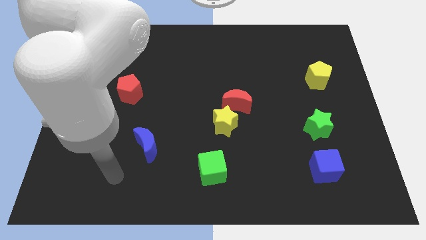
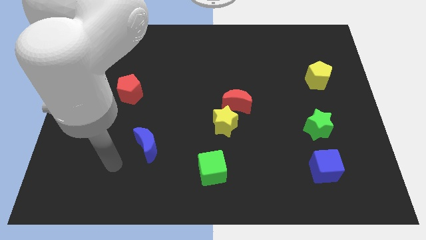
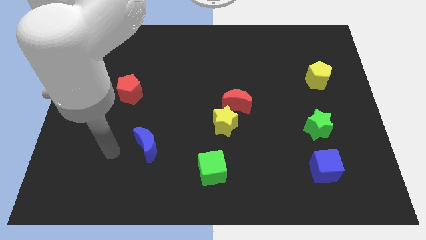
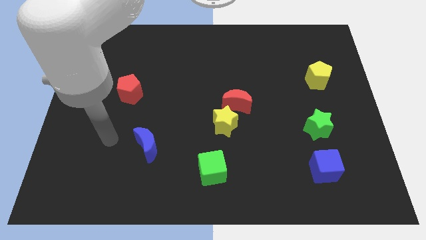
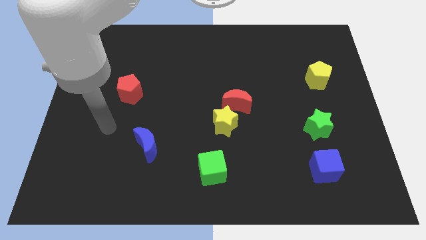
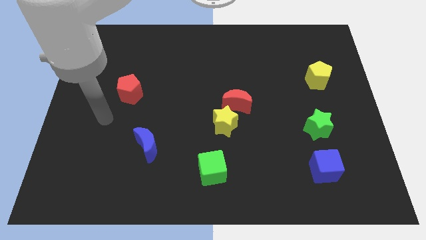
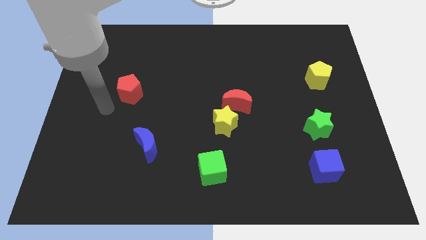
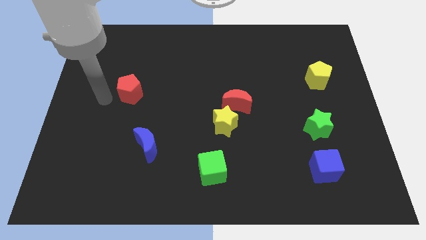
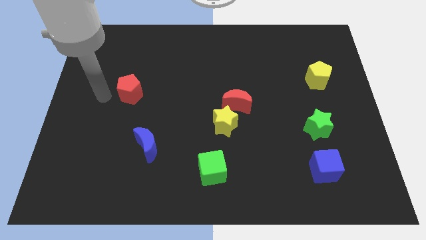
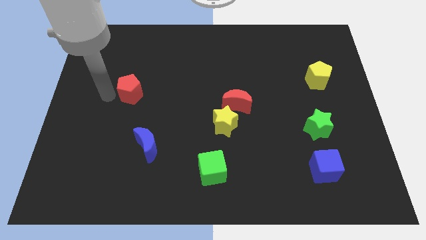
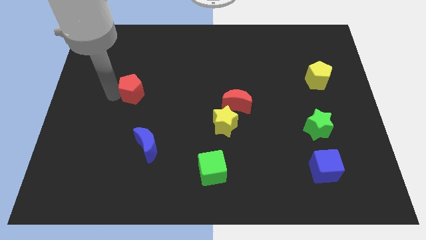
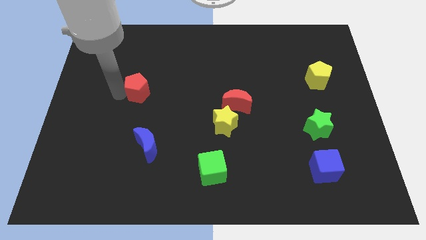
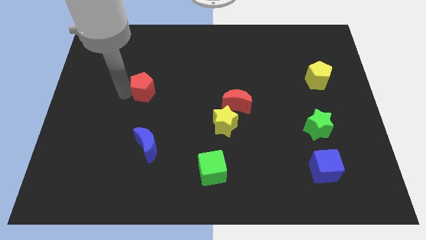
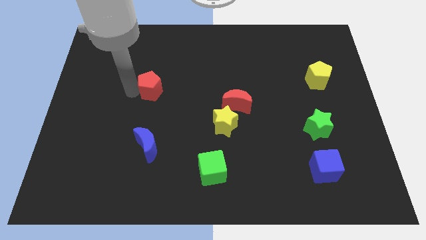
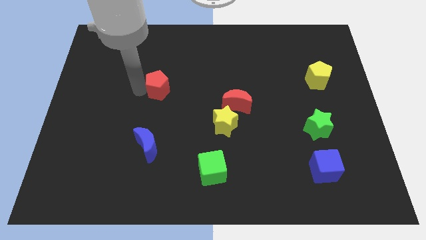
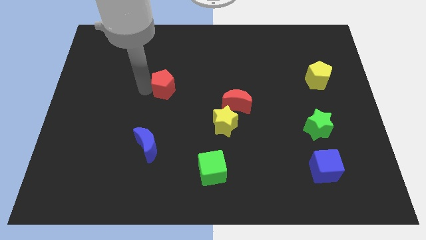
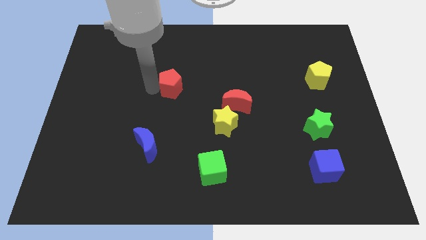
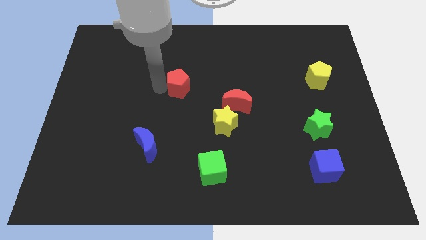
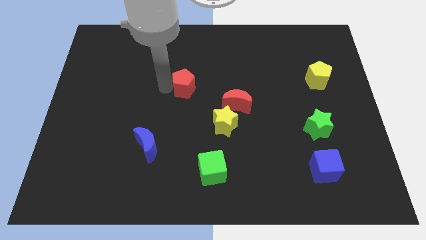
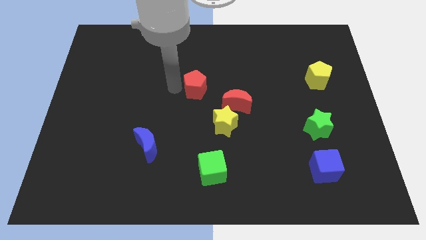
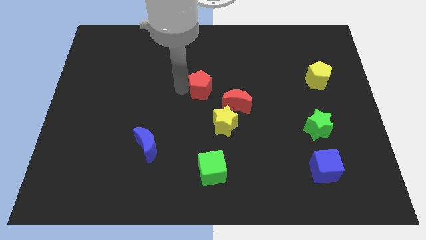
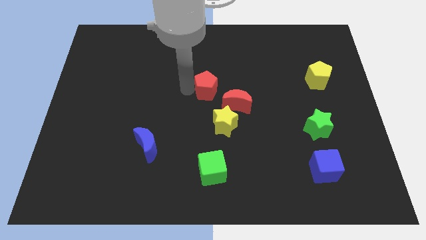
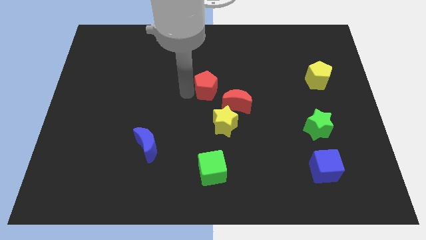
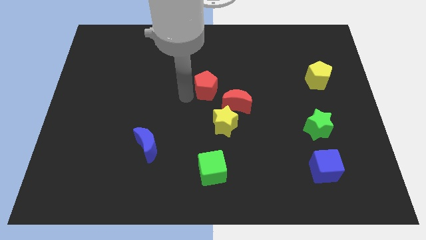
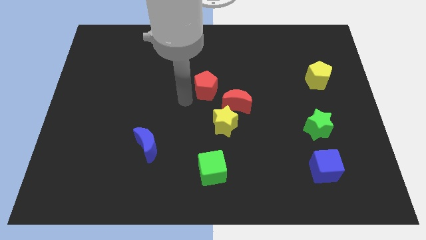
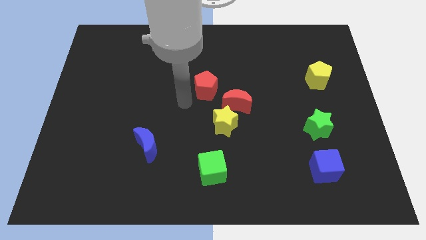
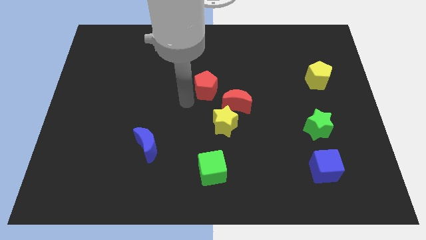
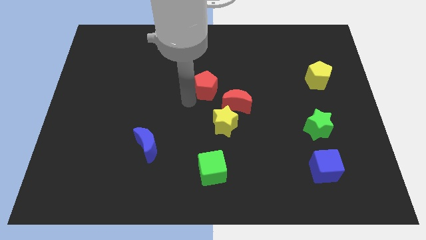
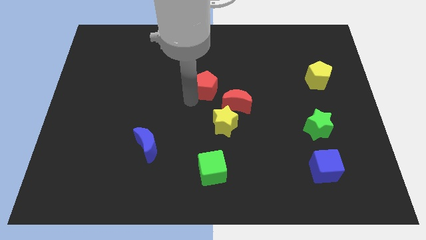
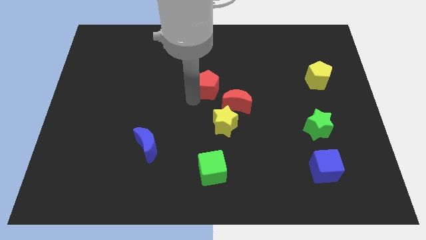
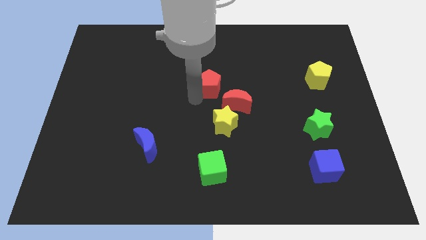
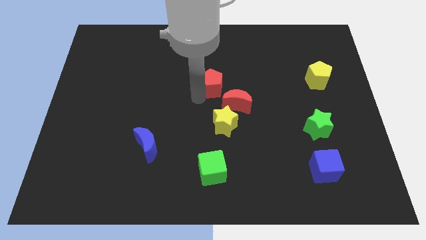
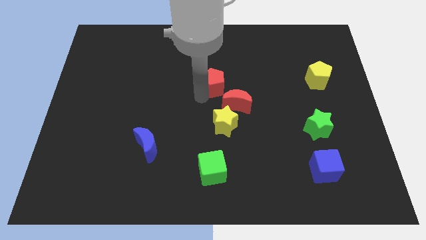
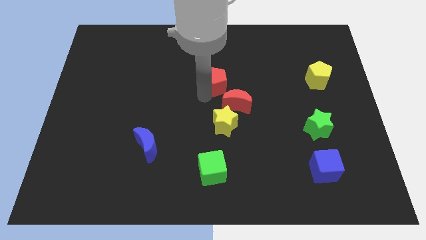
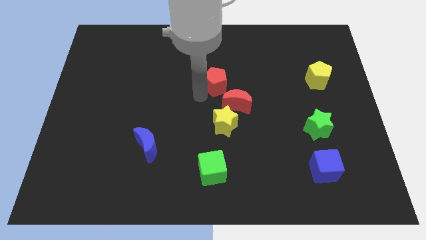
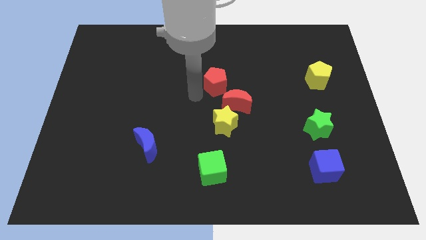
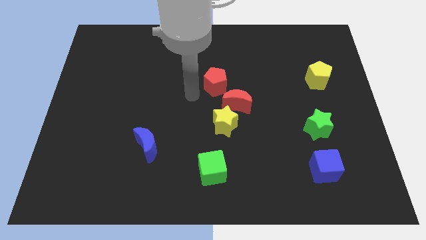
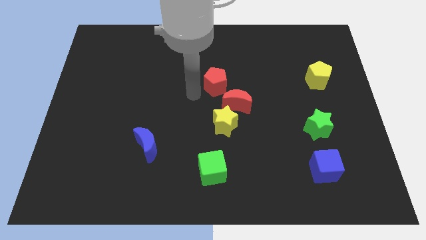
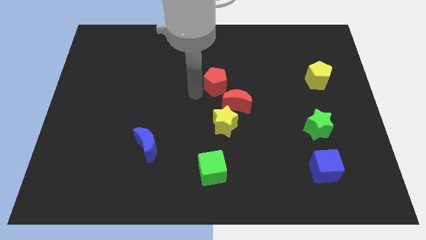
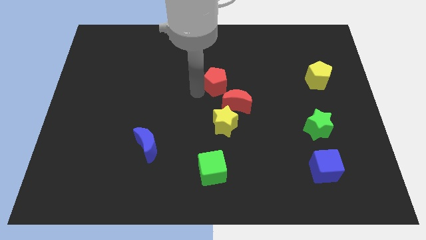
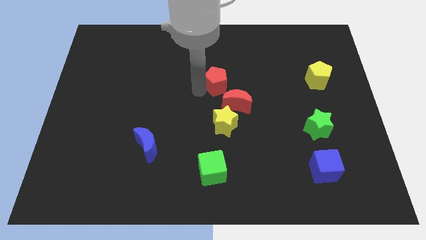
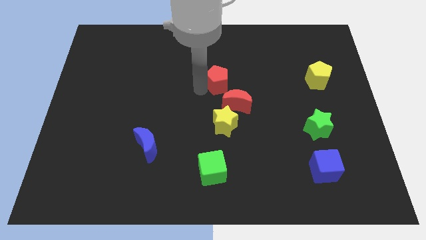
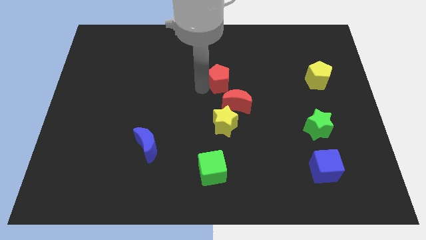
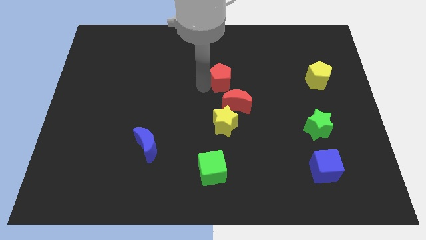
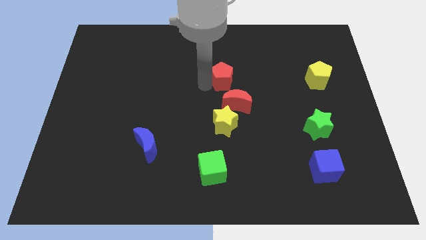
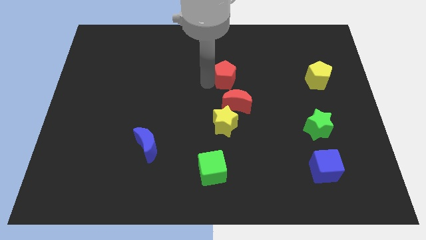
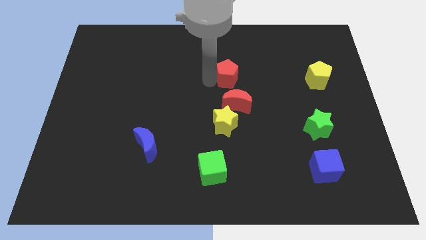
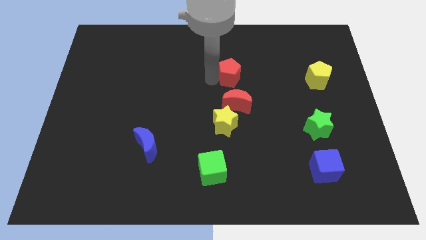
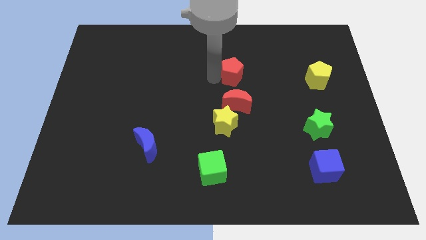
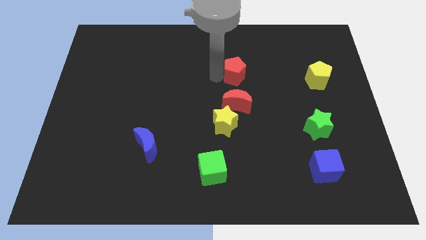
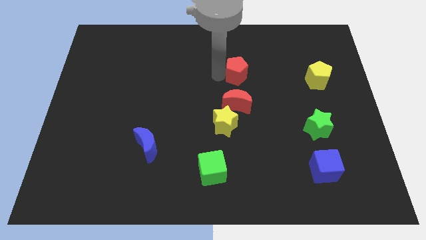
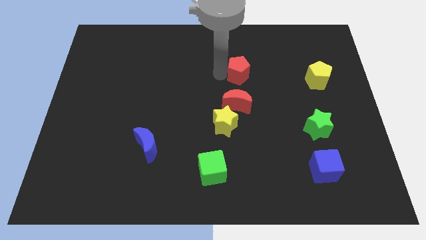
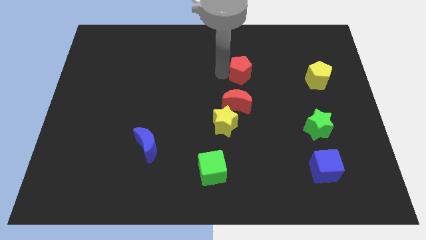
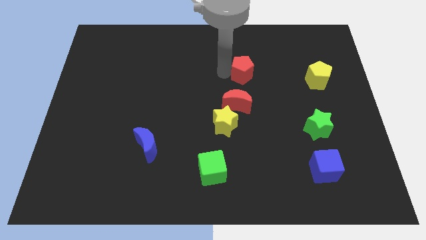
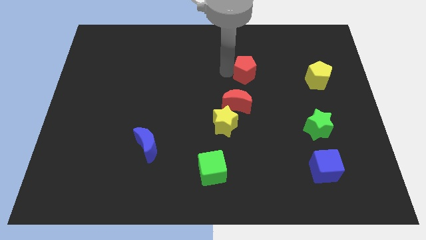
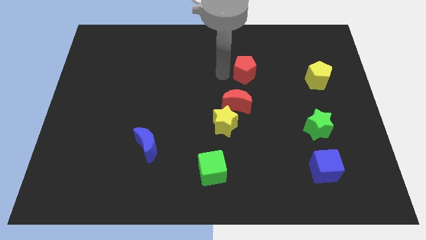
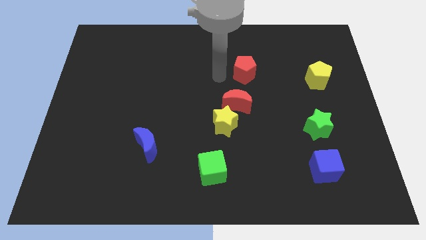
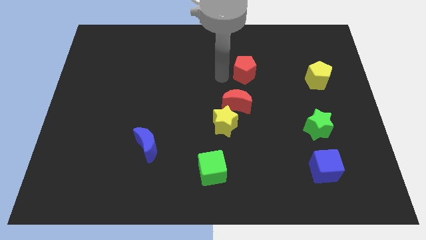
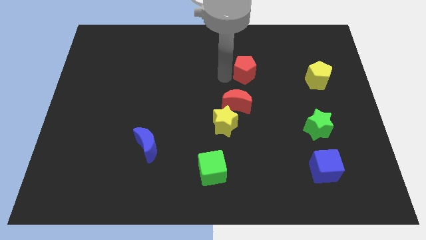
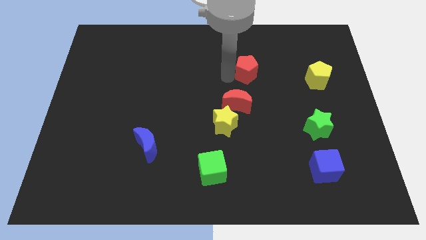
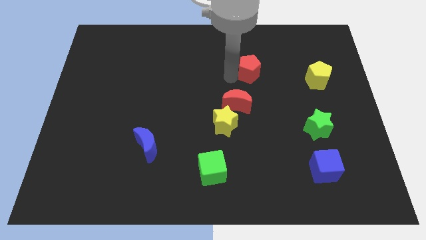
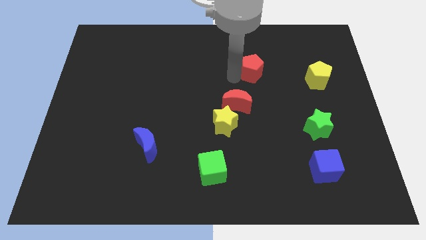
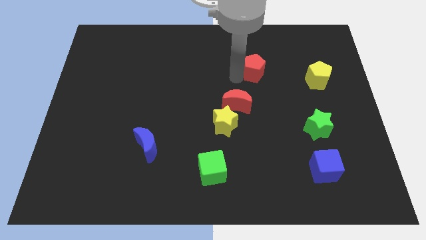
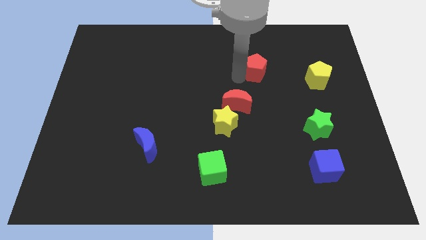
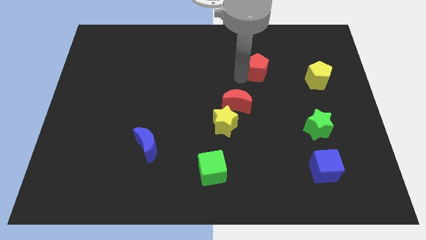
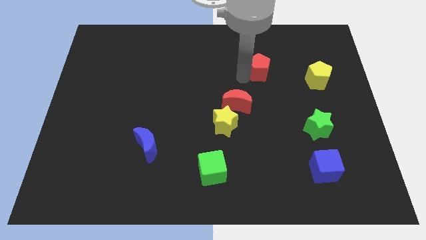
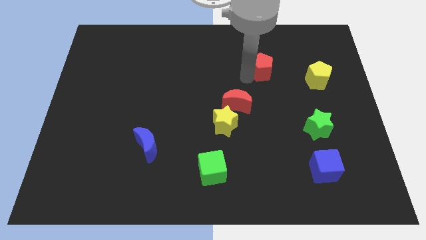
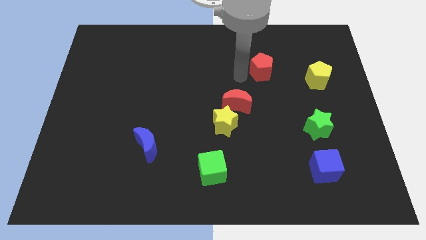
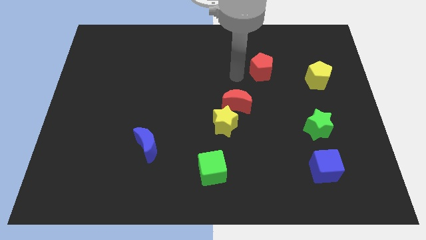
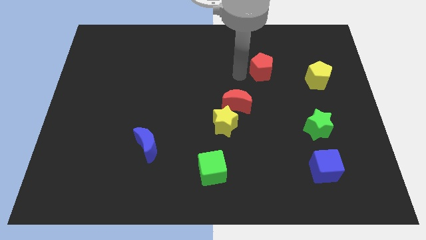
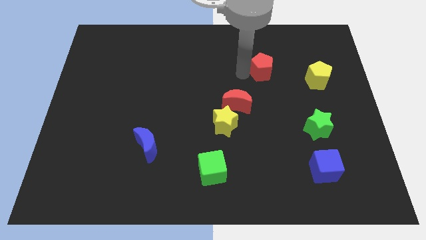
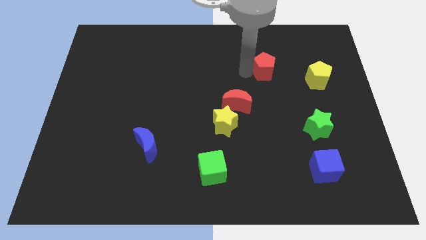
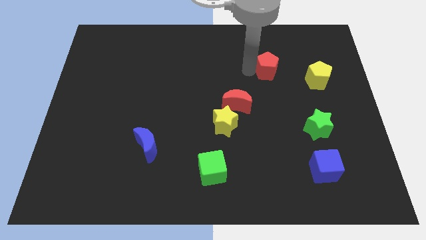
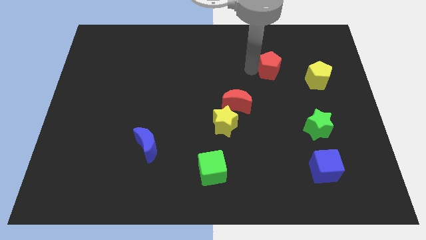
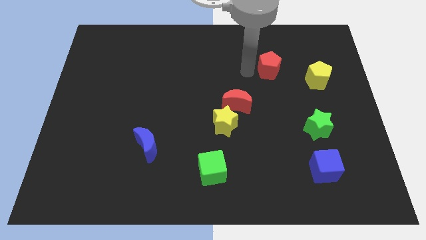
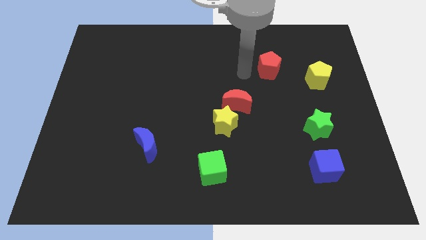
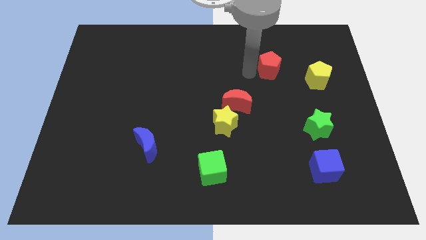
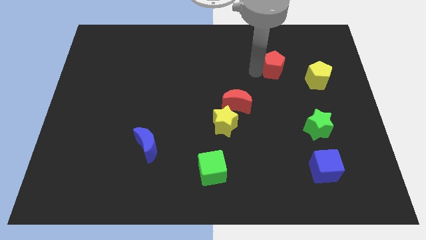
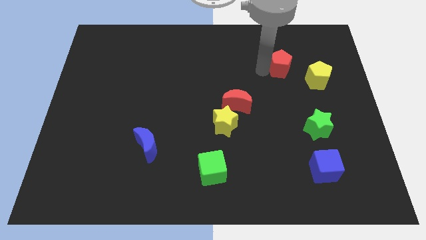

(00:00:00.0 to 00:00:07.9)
move the red pentagon to the top left of the yellow pentagon
